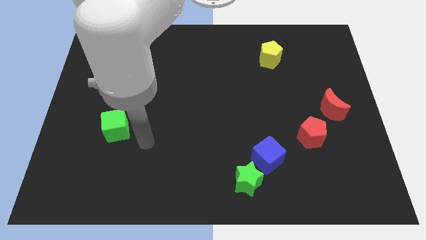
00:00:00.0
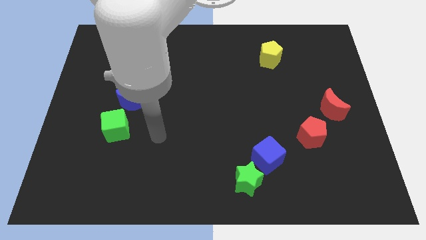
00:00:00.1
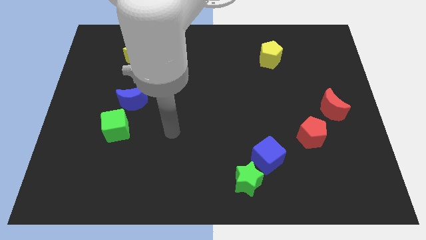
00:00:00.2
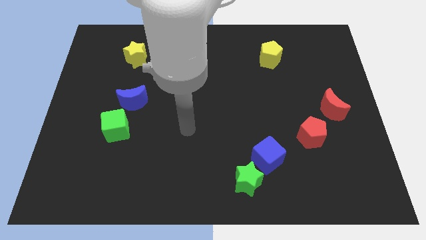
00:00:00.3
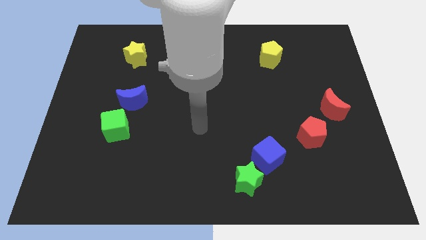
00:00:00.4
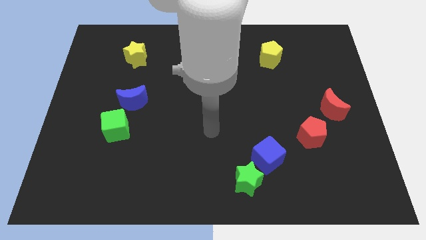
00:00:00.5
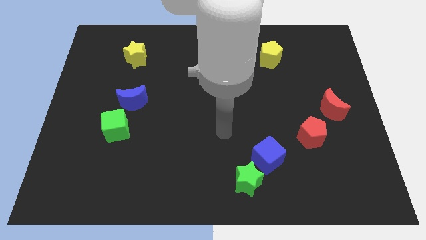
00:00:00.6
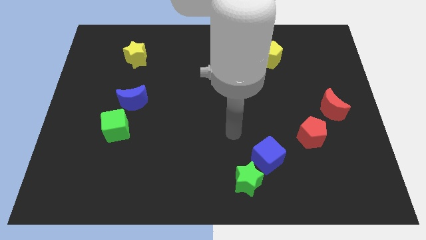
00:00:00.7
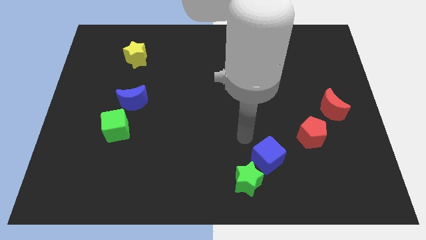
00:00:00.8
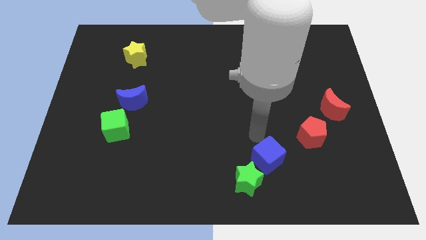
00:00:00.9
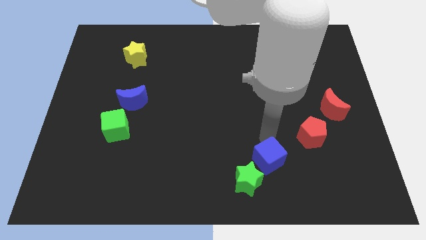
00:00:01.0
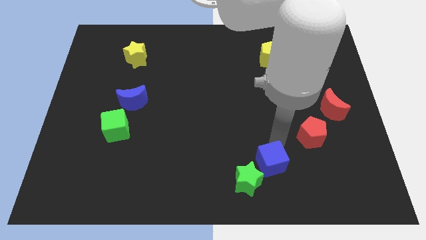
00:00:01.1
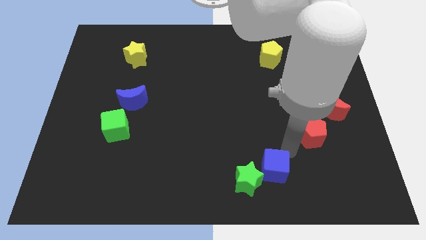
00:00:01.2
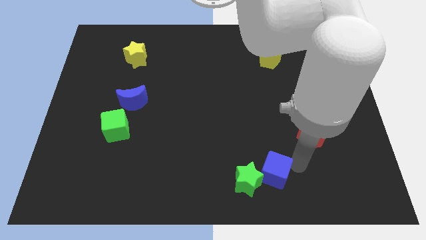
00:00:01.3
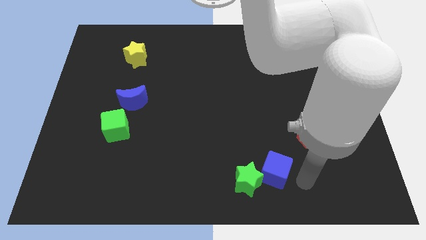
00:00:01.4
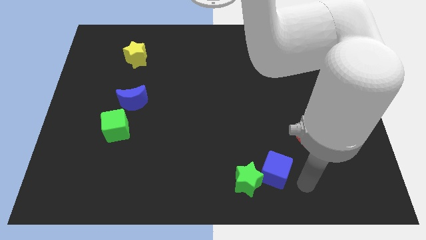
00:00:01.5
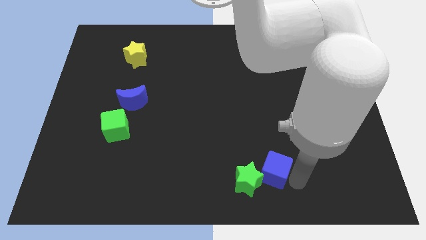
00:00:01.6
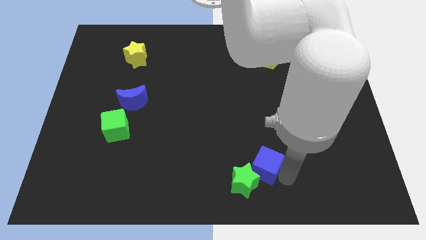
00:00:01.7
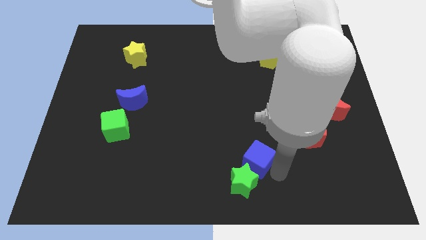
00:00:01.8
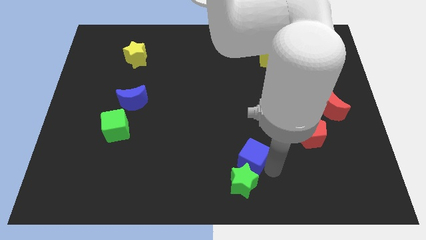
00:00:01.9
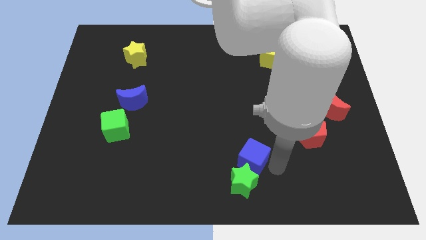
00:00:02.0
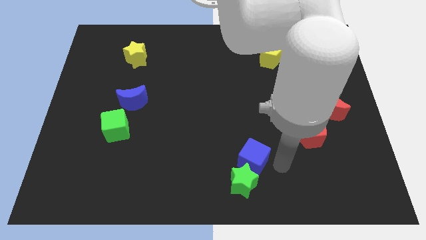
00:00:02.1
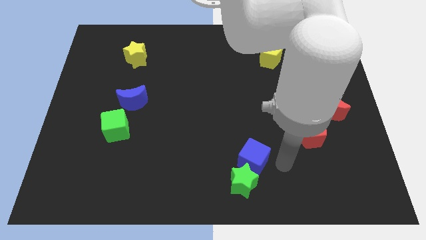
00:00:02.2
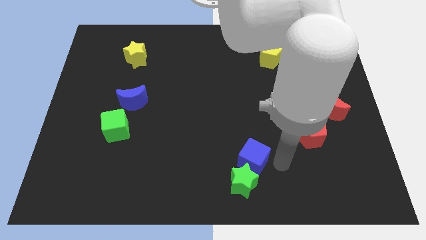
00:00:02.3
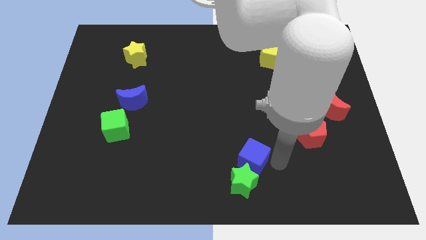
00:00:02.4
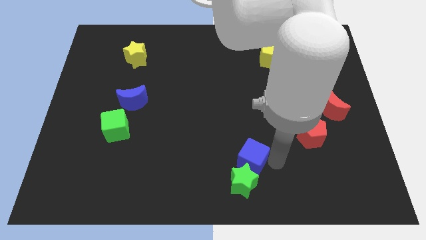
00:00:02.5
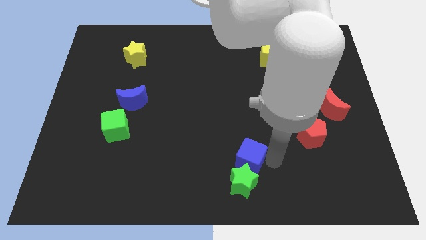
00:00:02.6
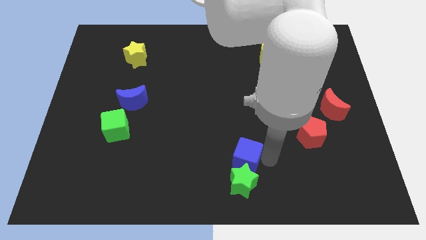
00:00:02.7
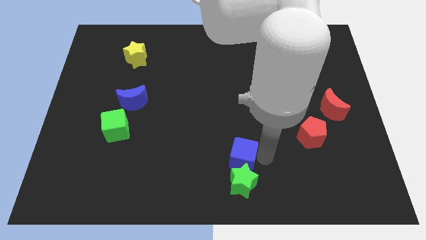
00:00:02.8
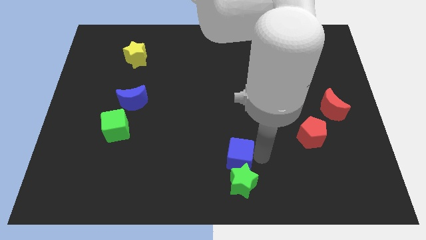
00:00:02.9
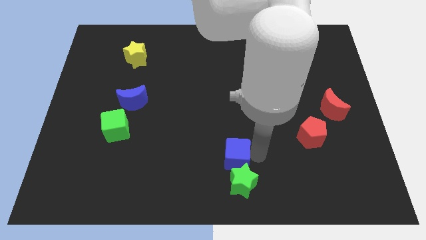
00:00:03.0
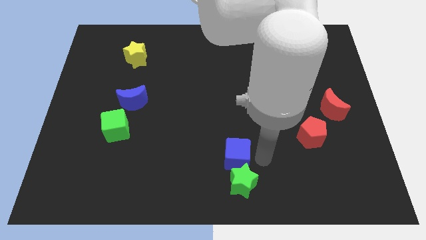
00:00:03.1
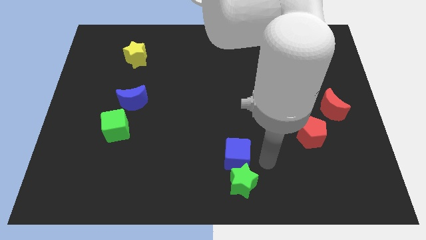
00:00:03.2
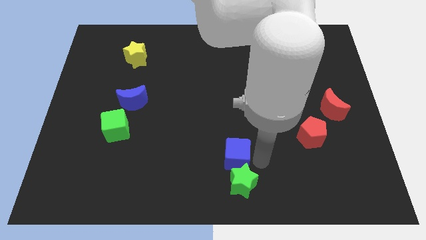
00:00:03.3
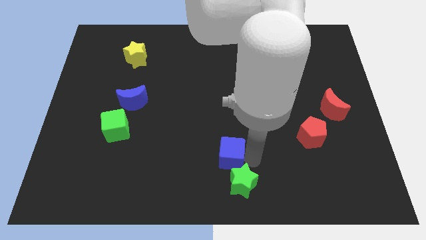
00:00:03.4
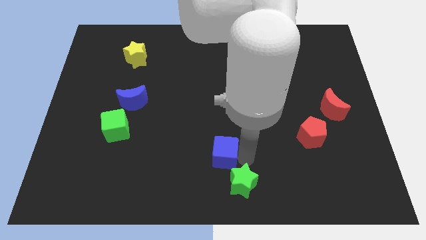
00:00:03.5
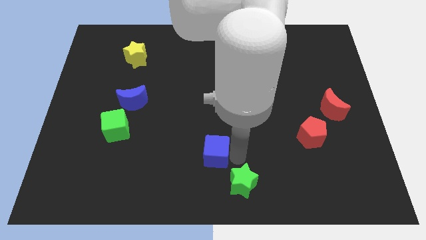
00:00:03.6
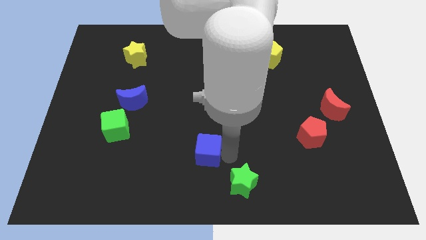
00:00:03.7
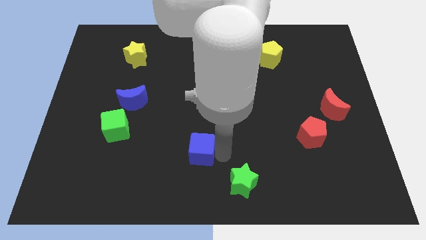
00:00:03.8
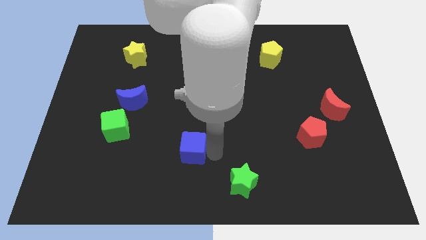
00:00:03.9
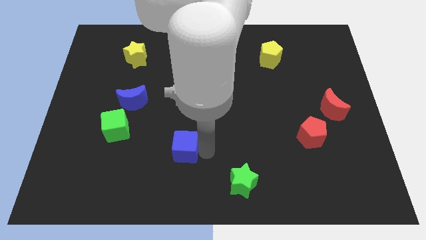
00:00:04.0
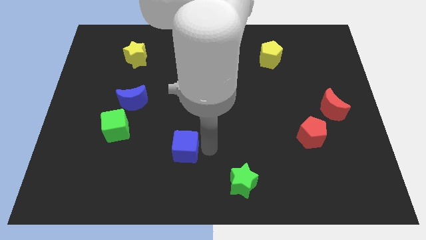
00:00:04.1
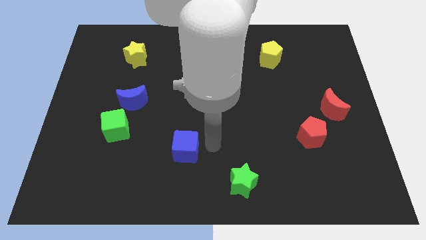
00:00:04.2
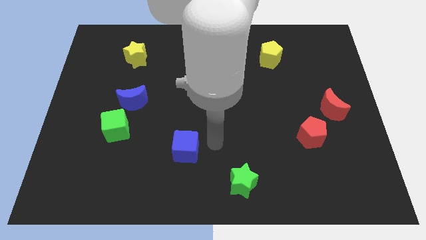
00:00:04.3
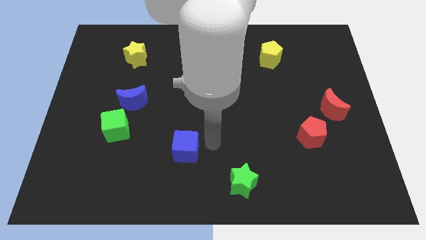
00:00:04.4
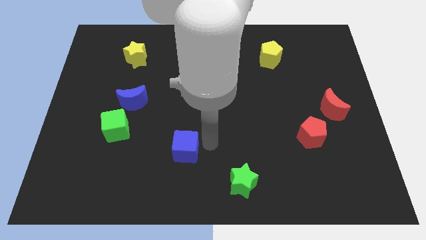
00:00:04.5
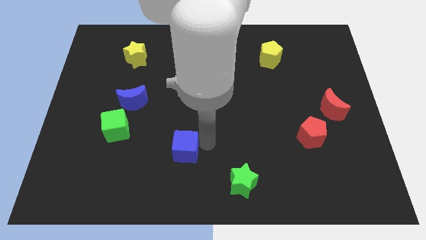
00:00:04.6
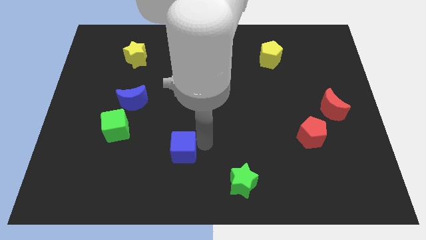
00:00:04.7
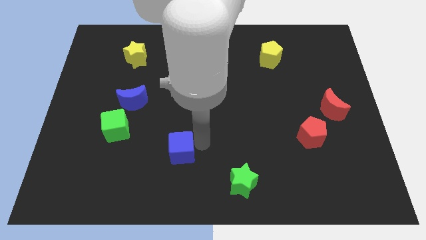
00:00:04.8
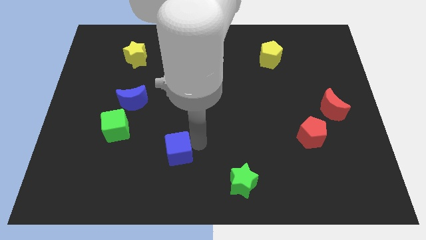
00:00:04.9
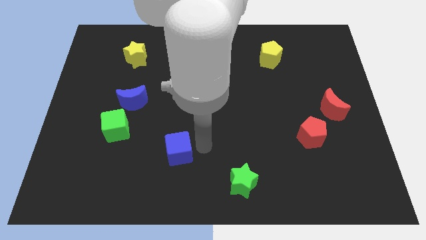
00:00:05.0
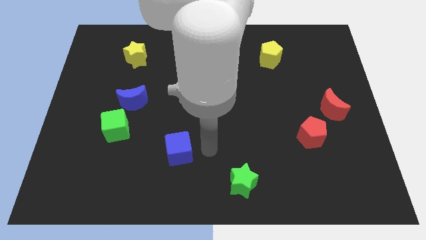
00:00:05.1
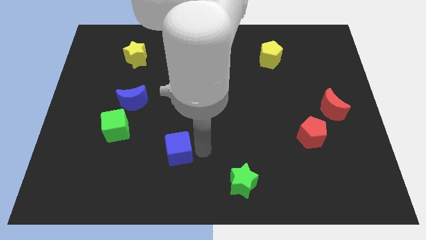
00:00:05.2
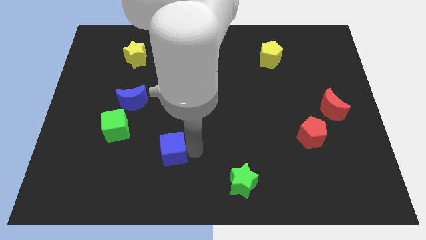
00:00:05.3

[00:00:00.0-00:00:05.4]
slide the blue cube to the left

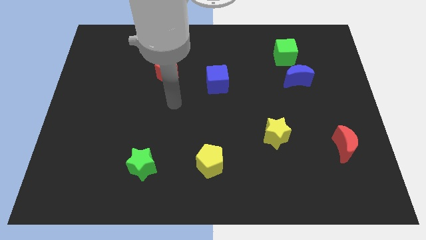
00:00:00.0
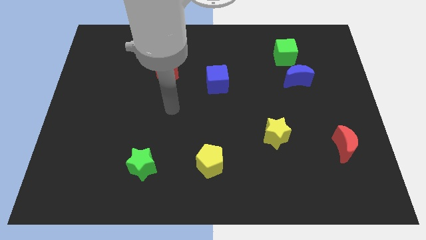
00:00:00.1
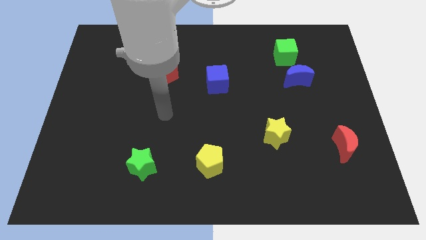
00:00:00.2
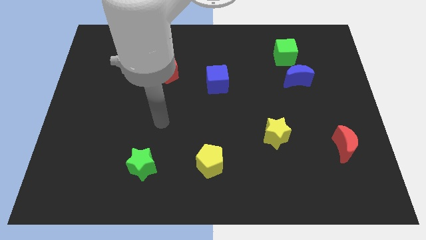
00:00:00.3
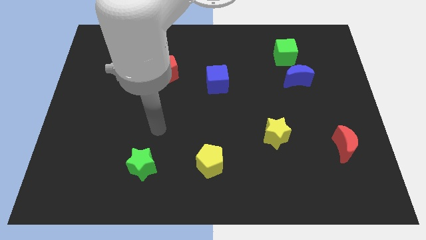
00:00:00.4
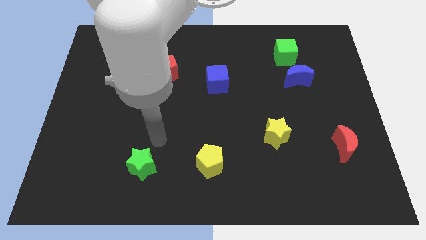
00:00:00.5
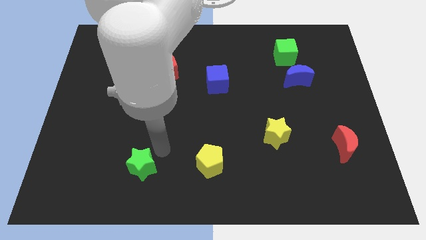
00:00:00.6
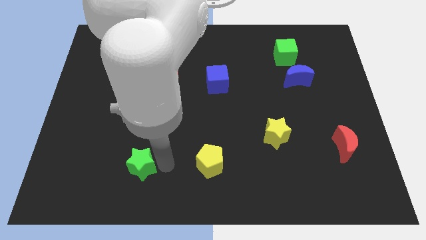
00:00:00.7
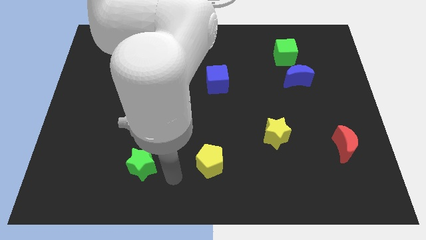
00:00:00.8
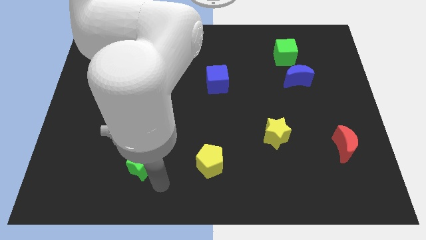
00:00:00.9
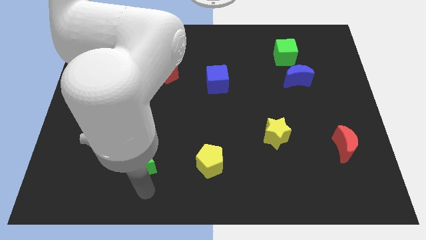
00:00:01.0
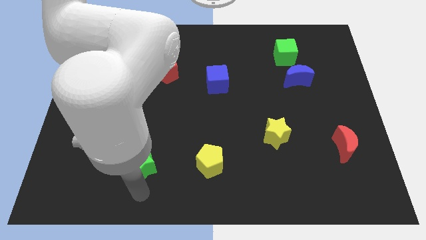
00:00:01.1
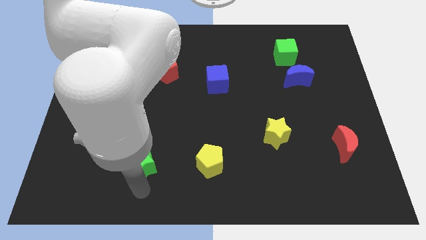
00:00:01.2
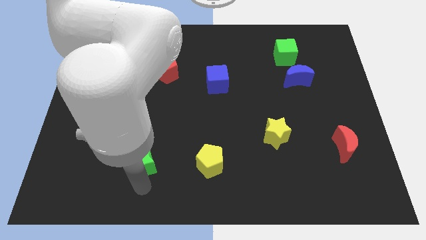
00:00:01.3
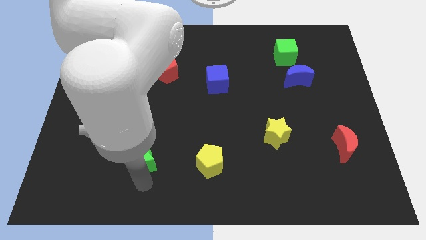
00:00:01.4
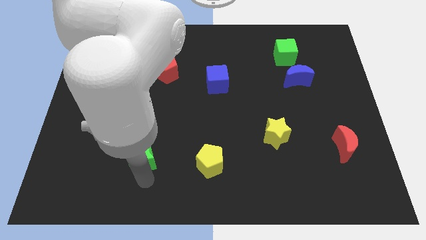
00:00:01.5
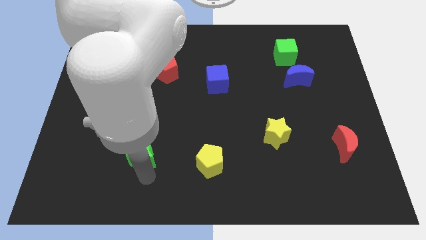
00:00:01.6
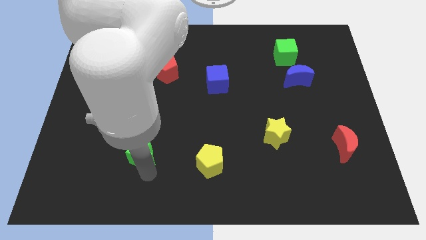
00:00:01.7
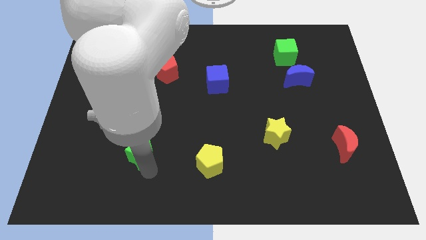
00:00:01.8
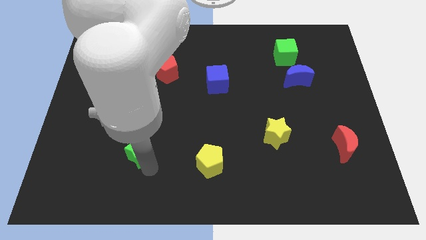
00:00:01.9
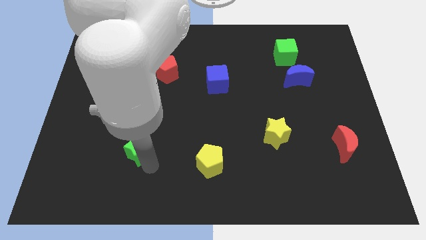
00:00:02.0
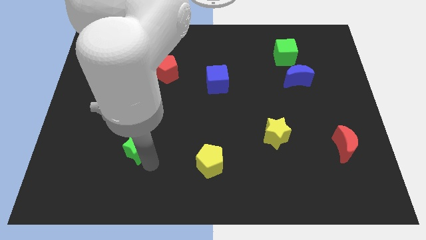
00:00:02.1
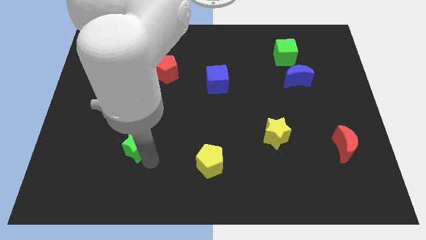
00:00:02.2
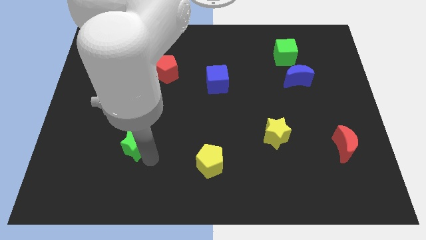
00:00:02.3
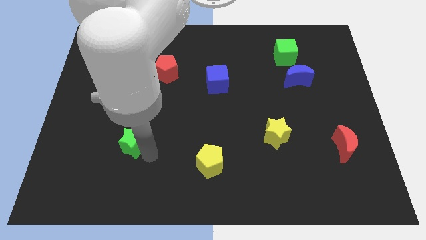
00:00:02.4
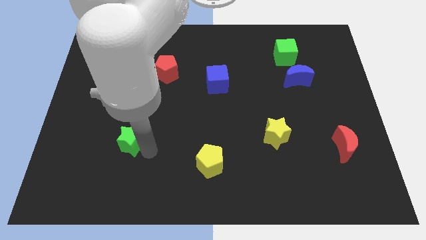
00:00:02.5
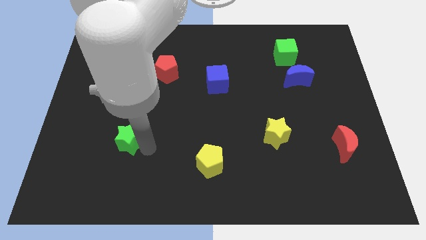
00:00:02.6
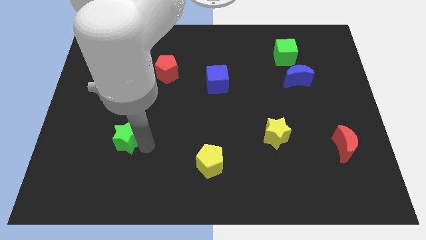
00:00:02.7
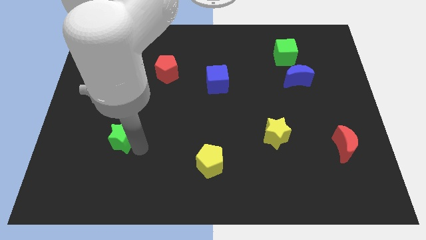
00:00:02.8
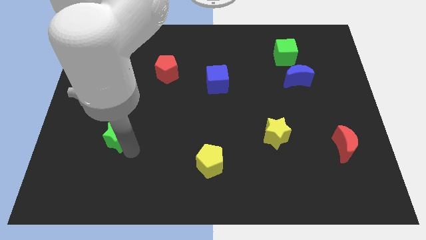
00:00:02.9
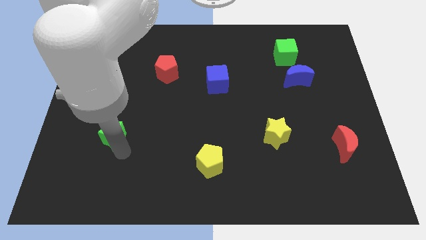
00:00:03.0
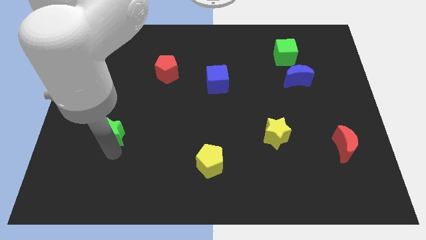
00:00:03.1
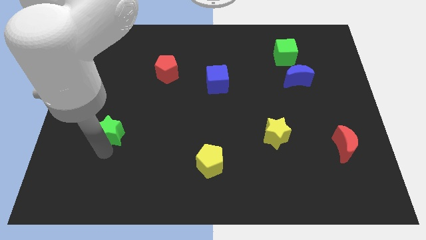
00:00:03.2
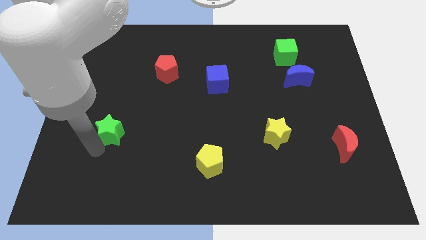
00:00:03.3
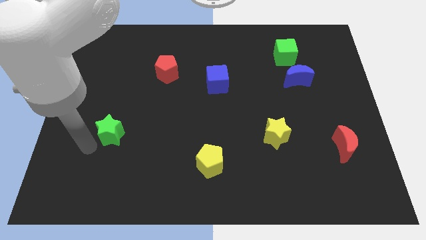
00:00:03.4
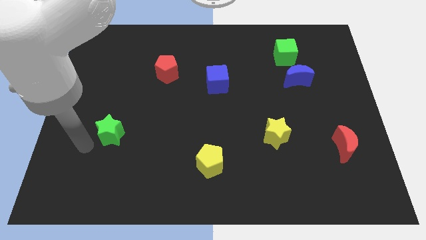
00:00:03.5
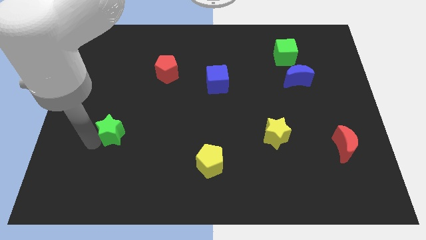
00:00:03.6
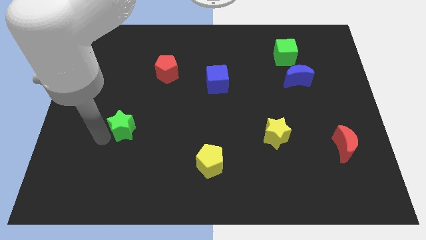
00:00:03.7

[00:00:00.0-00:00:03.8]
move the green star somewhat upwards
